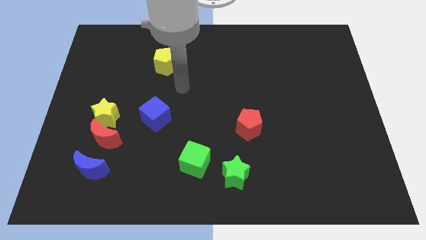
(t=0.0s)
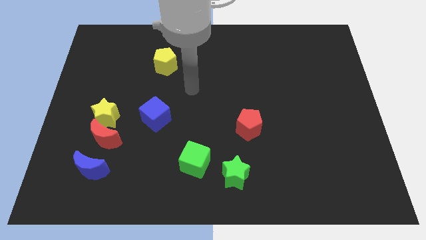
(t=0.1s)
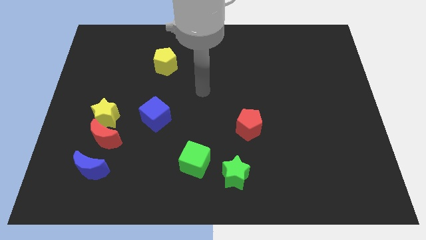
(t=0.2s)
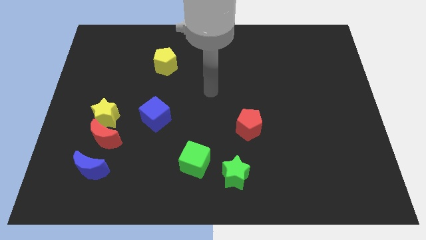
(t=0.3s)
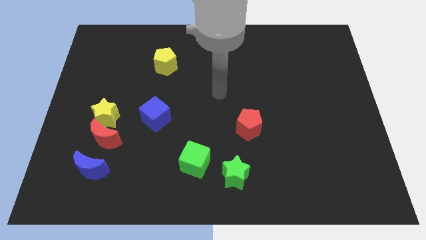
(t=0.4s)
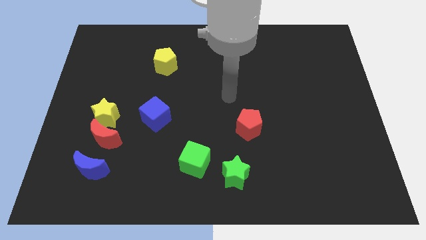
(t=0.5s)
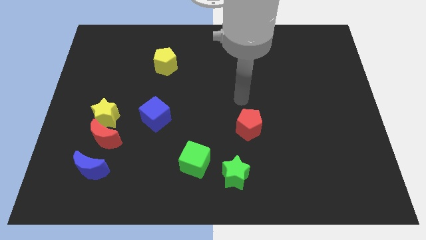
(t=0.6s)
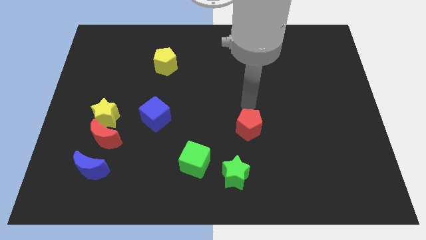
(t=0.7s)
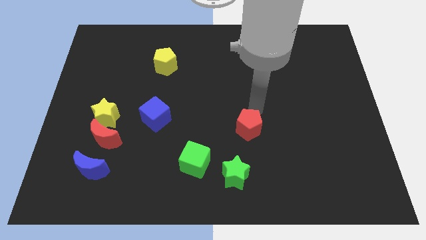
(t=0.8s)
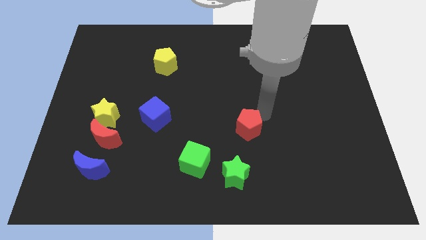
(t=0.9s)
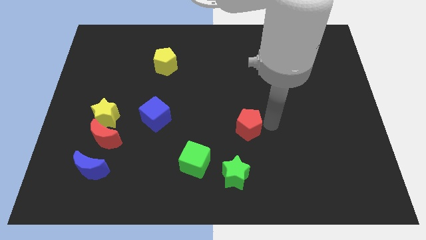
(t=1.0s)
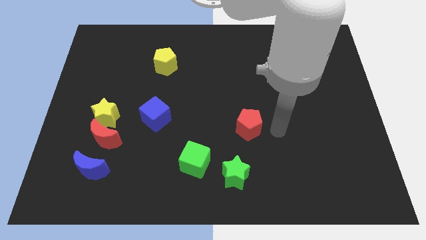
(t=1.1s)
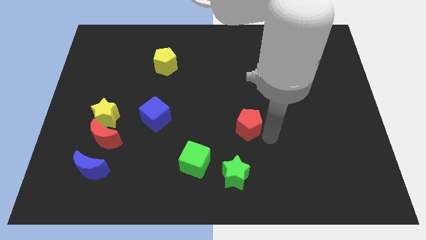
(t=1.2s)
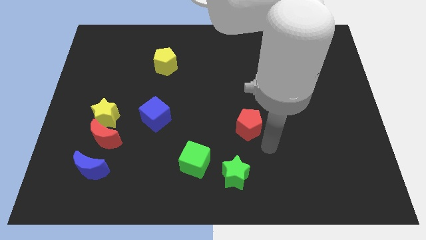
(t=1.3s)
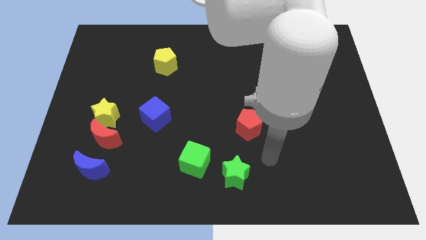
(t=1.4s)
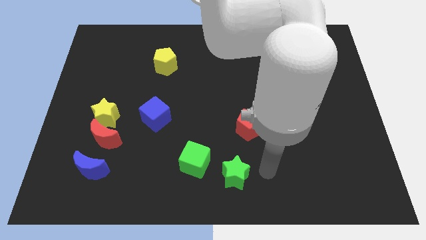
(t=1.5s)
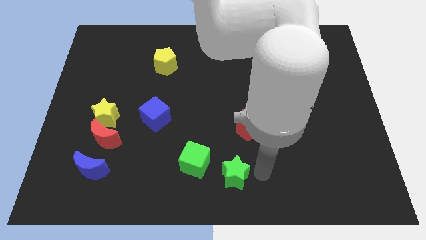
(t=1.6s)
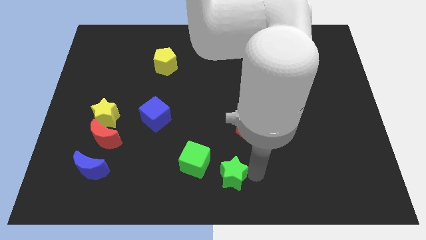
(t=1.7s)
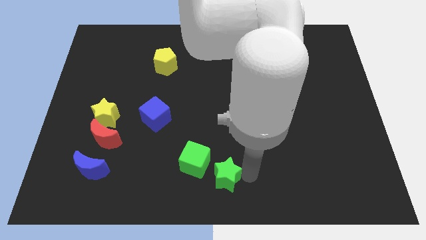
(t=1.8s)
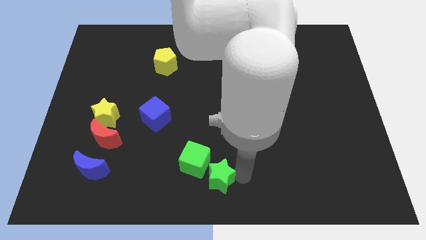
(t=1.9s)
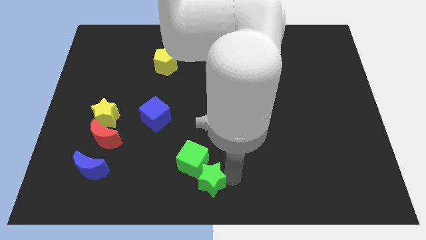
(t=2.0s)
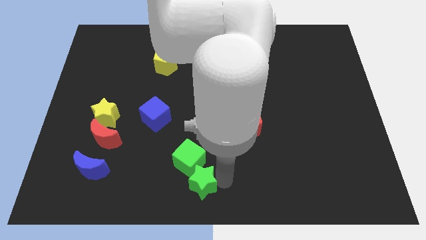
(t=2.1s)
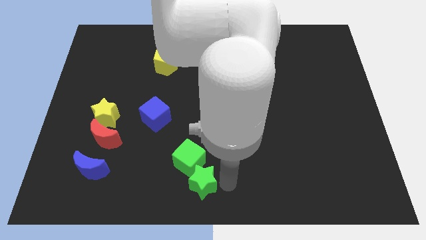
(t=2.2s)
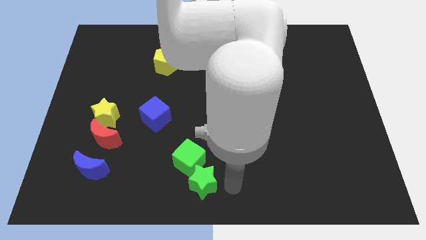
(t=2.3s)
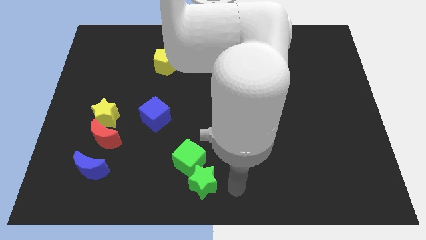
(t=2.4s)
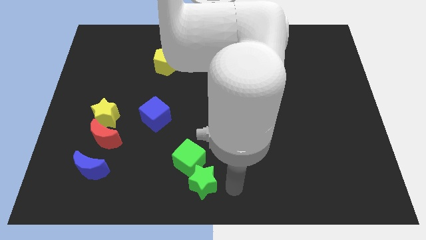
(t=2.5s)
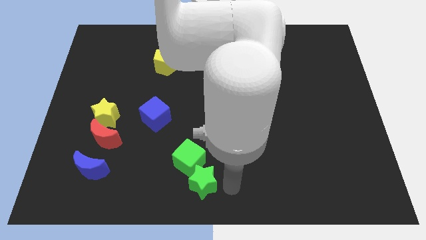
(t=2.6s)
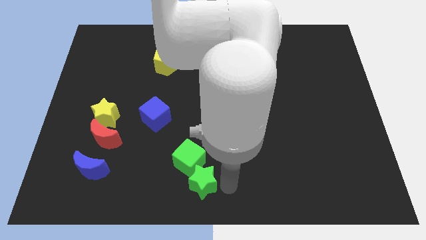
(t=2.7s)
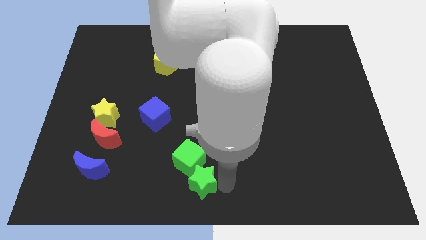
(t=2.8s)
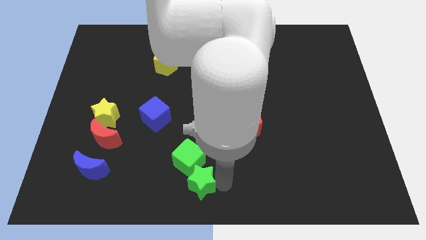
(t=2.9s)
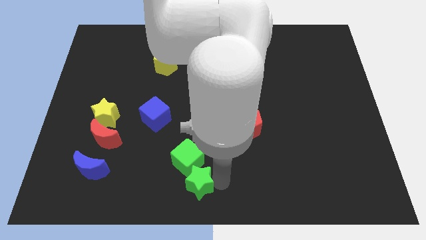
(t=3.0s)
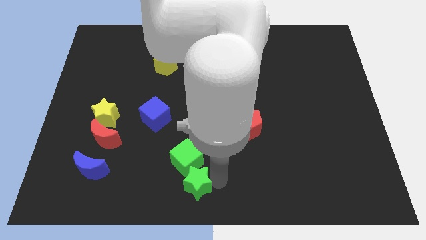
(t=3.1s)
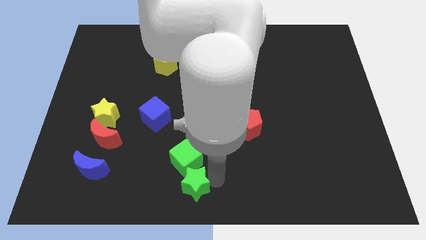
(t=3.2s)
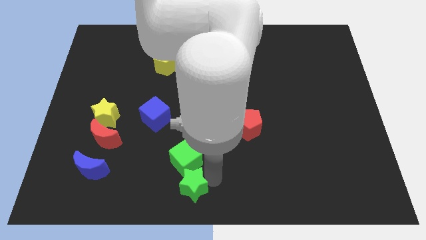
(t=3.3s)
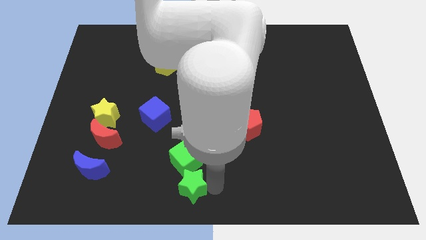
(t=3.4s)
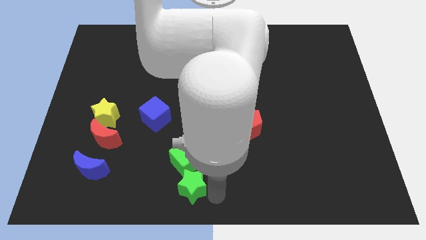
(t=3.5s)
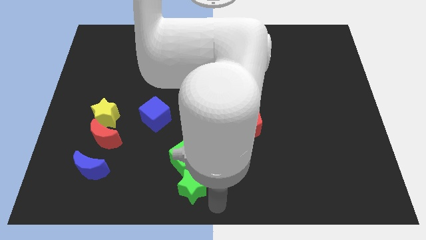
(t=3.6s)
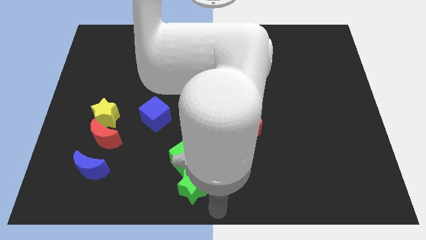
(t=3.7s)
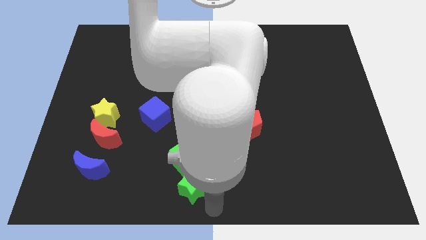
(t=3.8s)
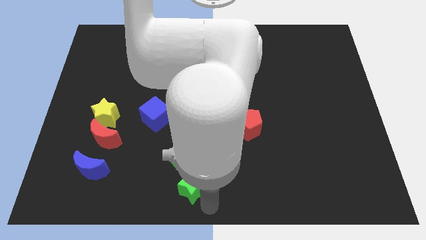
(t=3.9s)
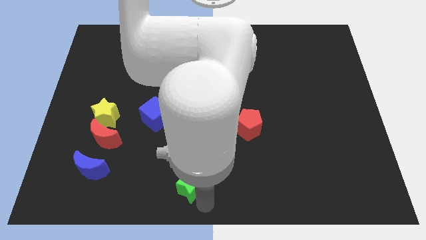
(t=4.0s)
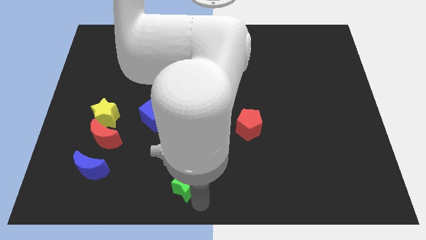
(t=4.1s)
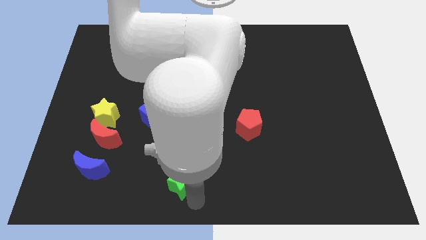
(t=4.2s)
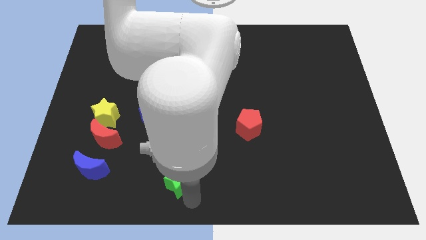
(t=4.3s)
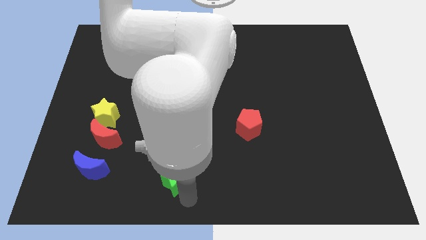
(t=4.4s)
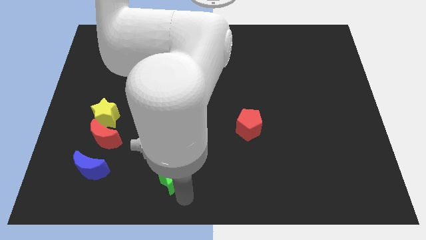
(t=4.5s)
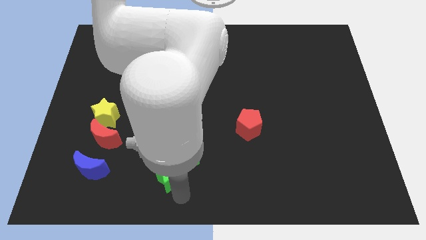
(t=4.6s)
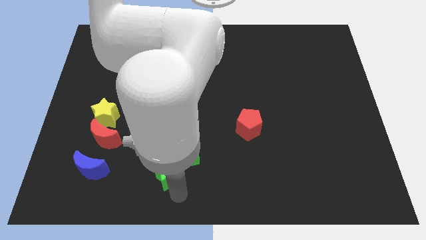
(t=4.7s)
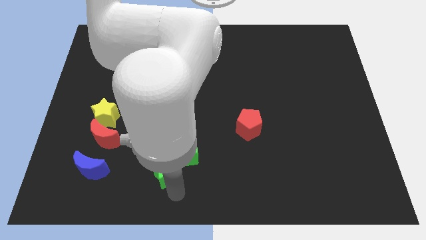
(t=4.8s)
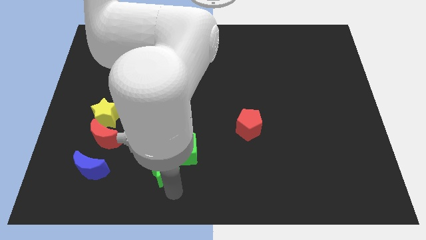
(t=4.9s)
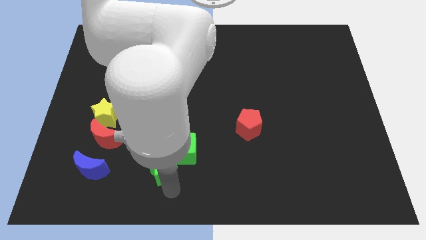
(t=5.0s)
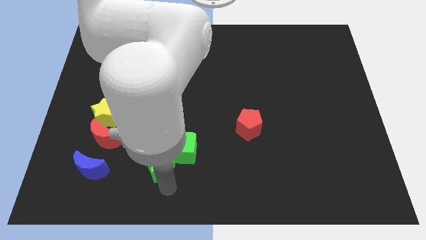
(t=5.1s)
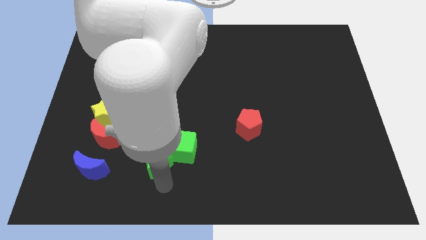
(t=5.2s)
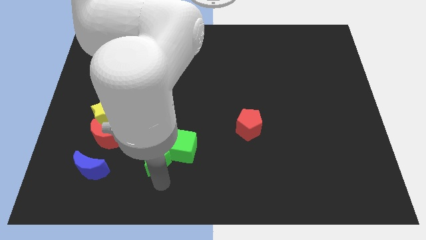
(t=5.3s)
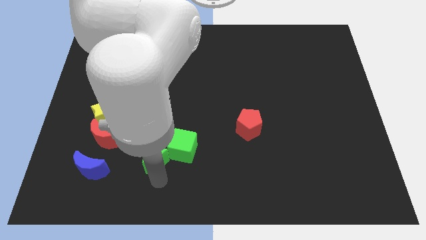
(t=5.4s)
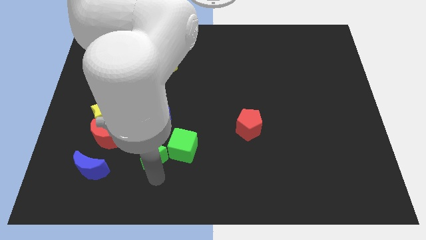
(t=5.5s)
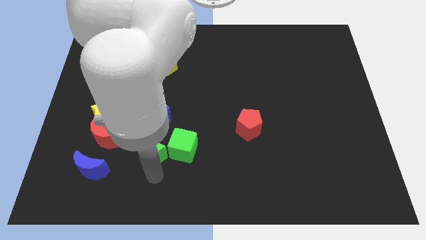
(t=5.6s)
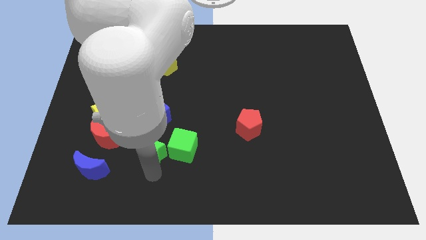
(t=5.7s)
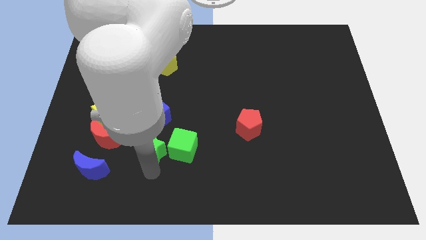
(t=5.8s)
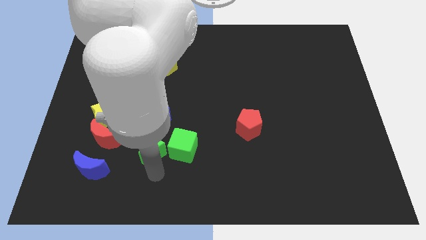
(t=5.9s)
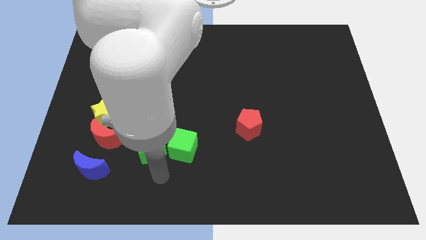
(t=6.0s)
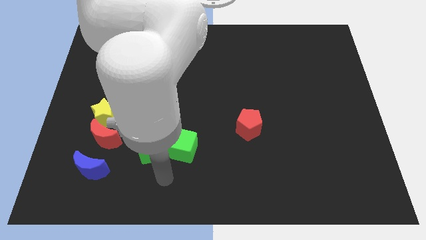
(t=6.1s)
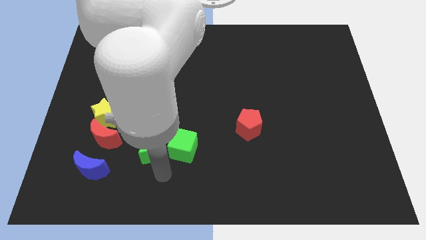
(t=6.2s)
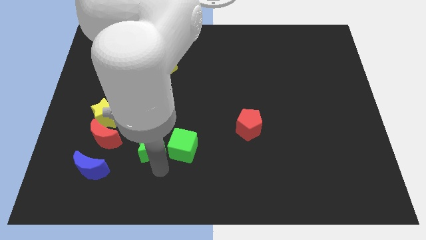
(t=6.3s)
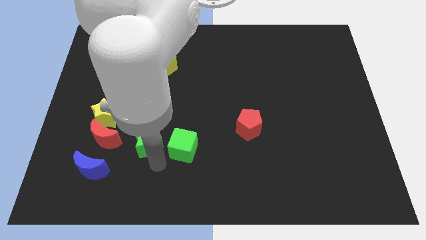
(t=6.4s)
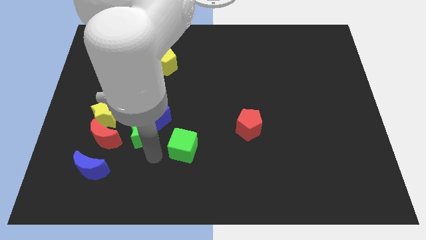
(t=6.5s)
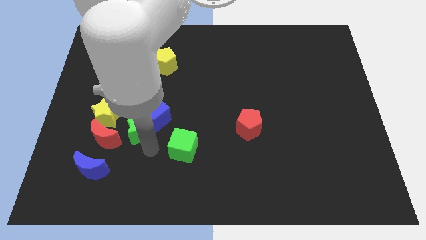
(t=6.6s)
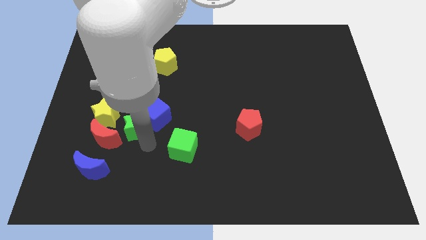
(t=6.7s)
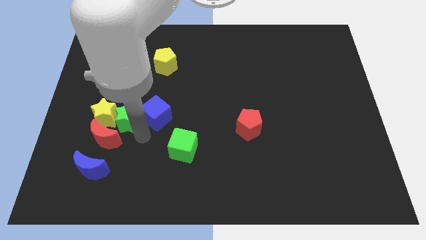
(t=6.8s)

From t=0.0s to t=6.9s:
put the green star above the red moon
